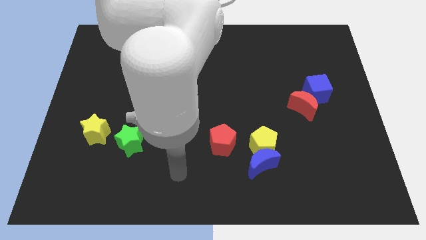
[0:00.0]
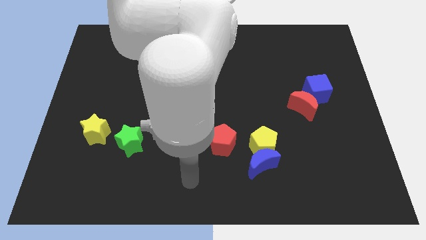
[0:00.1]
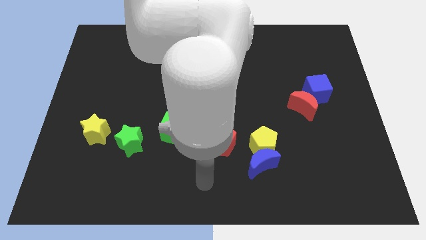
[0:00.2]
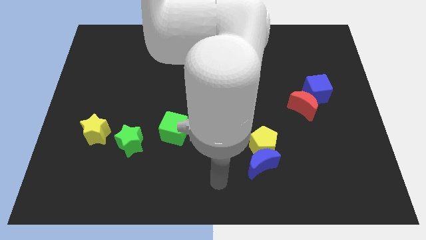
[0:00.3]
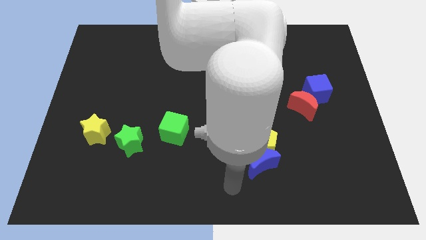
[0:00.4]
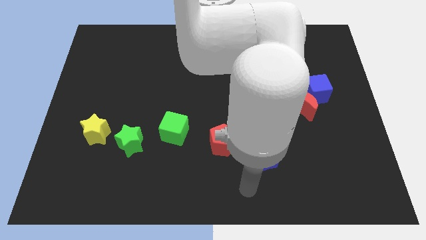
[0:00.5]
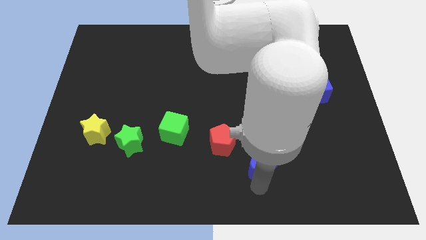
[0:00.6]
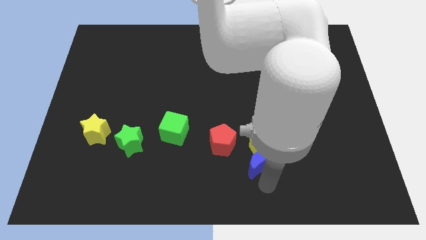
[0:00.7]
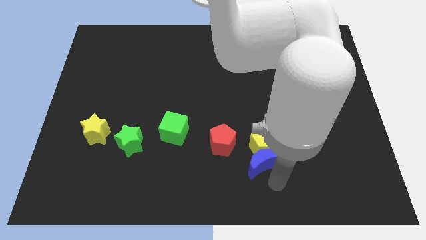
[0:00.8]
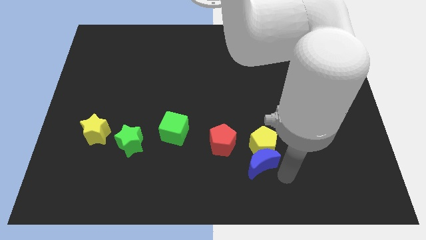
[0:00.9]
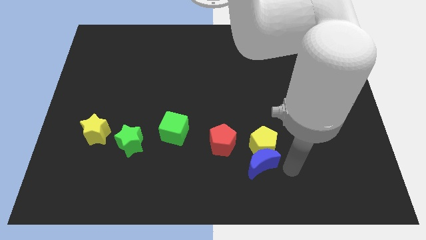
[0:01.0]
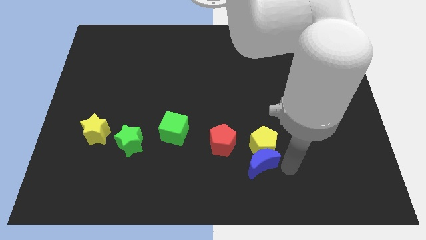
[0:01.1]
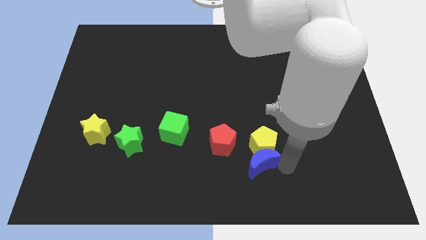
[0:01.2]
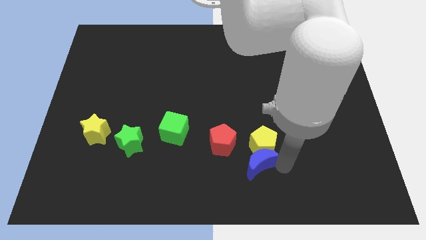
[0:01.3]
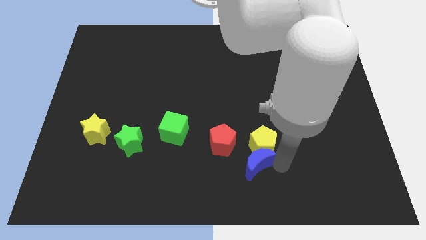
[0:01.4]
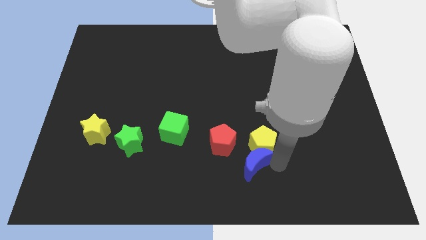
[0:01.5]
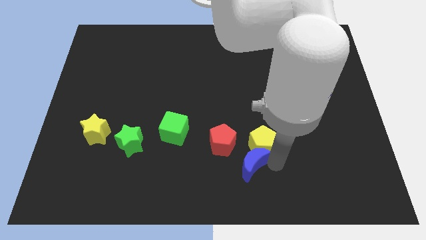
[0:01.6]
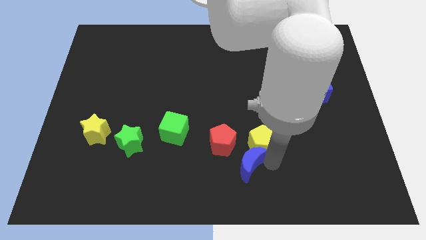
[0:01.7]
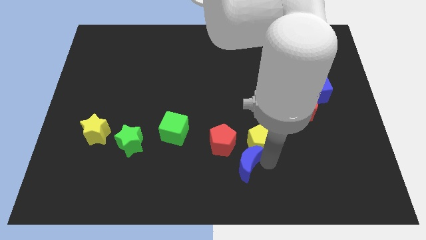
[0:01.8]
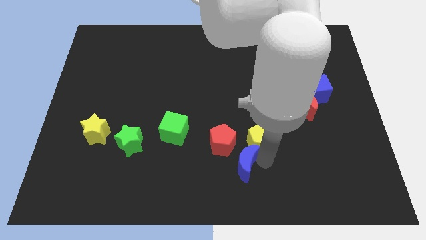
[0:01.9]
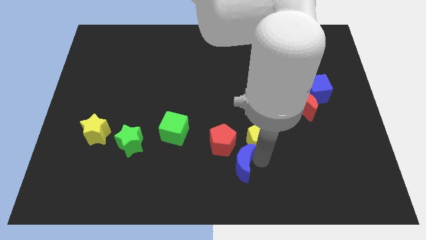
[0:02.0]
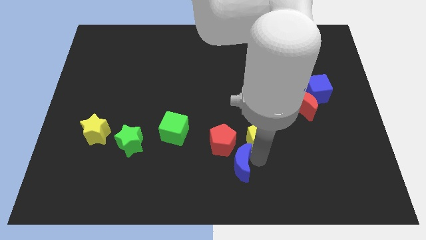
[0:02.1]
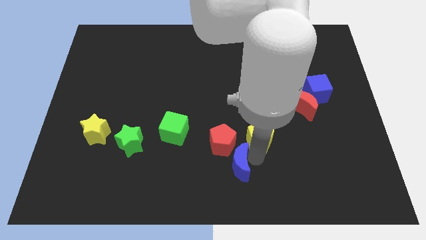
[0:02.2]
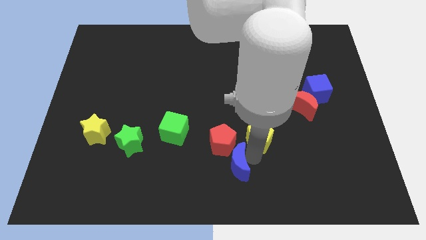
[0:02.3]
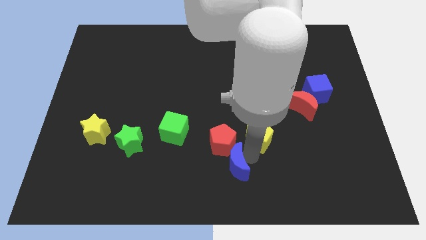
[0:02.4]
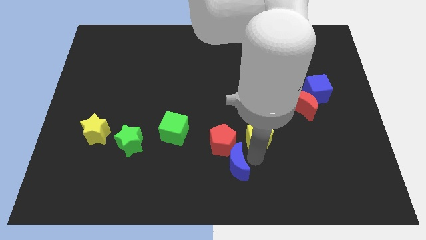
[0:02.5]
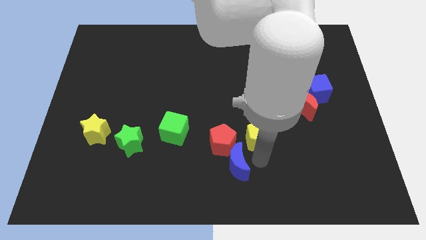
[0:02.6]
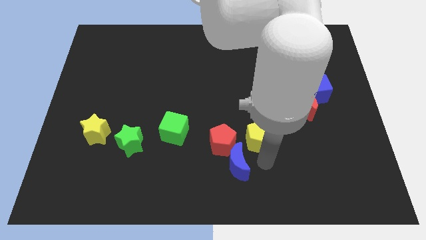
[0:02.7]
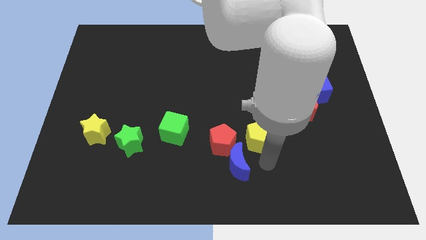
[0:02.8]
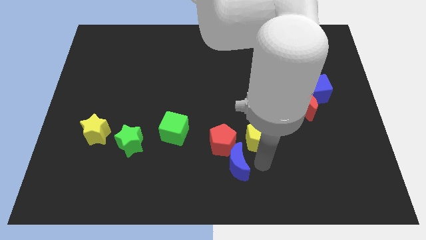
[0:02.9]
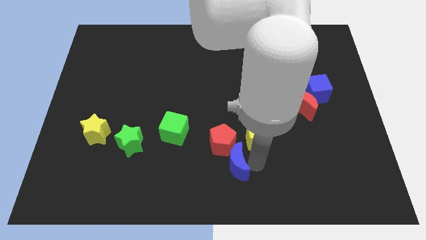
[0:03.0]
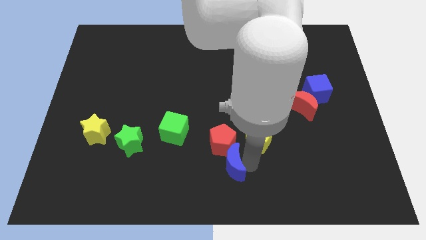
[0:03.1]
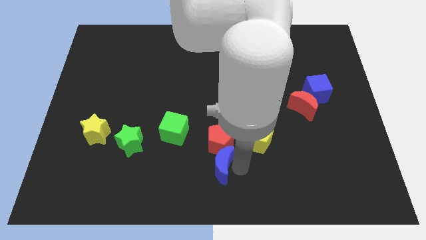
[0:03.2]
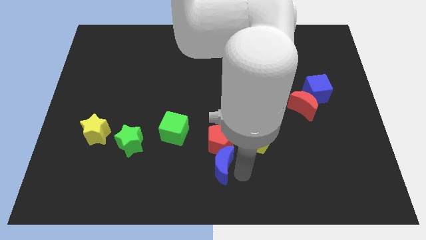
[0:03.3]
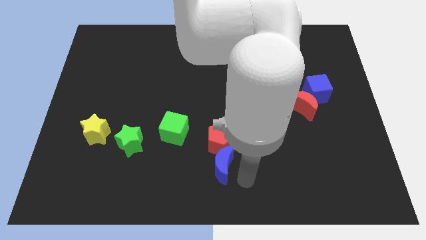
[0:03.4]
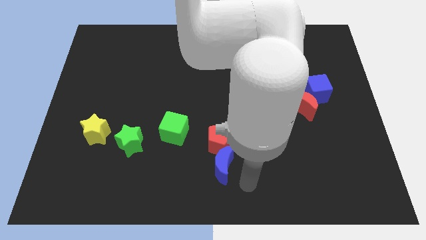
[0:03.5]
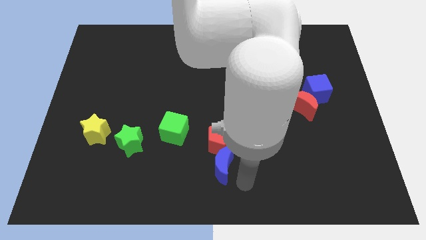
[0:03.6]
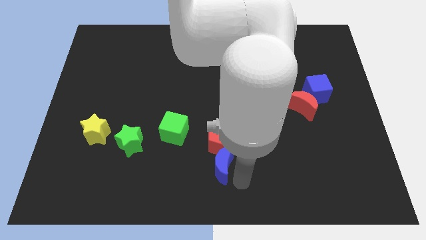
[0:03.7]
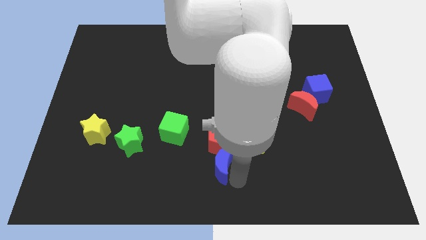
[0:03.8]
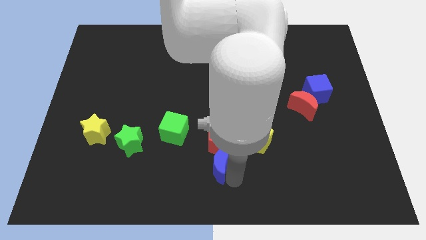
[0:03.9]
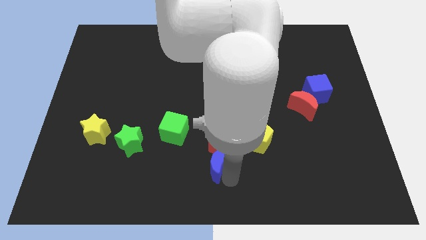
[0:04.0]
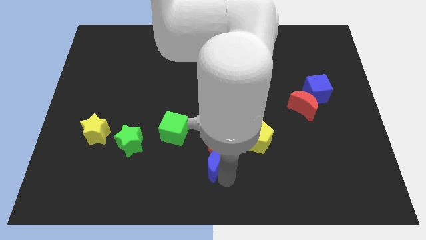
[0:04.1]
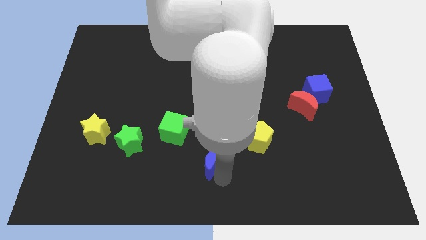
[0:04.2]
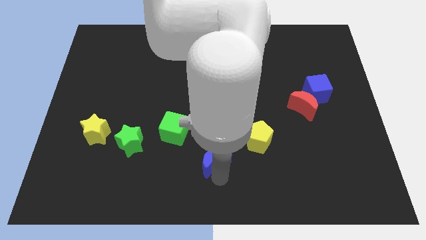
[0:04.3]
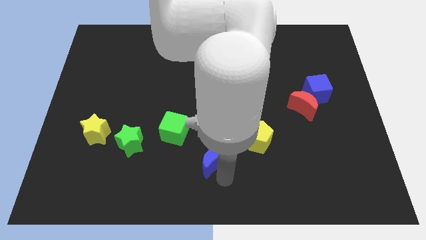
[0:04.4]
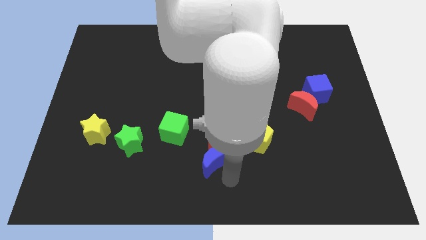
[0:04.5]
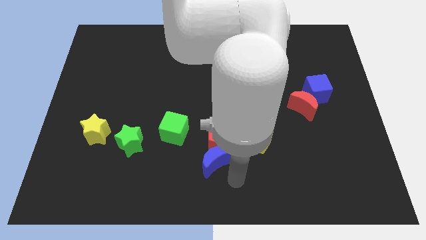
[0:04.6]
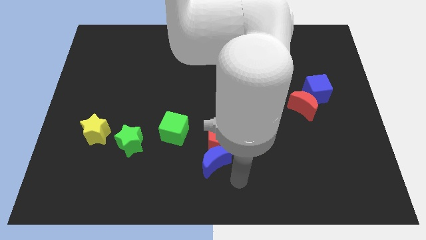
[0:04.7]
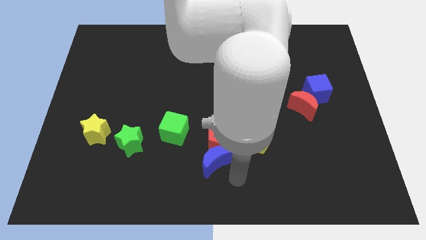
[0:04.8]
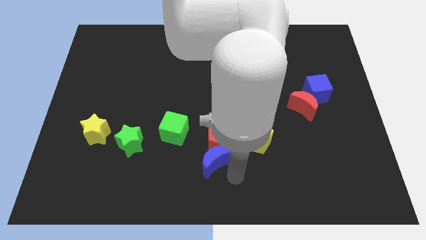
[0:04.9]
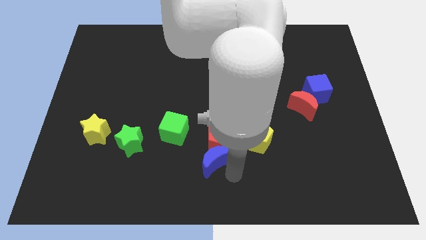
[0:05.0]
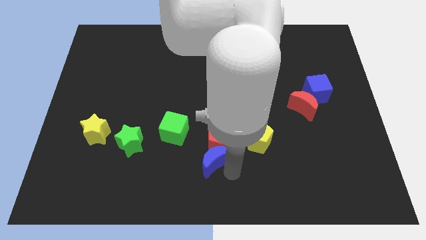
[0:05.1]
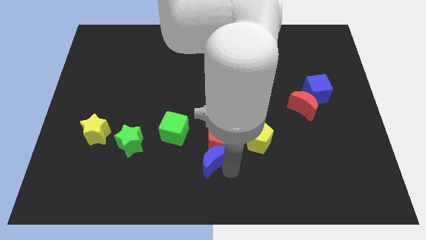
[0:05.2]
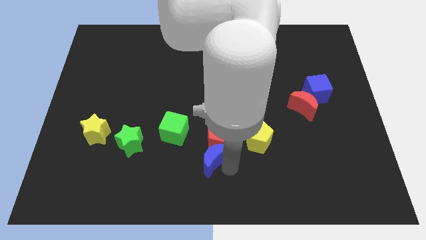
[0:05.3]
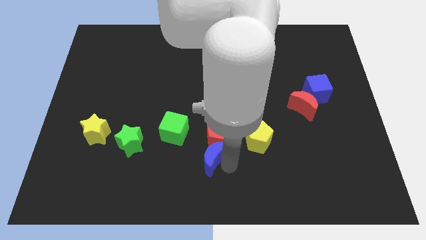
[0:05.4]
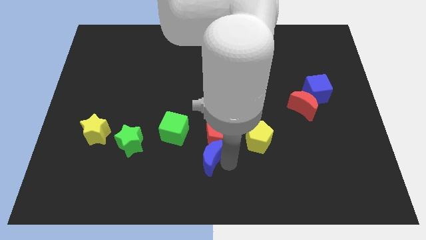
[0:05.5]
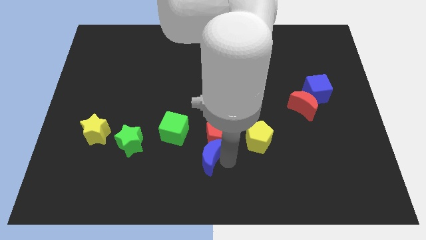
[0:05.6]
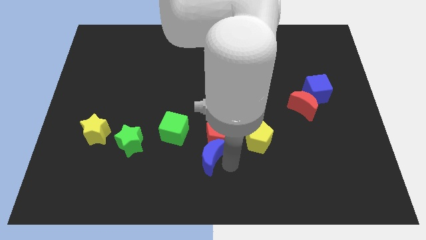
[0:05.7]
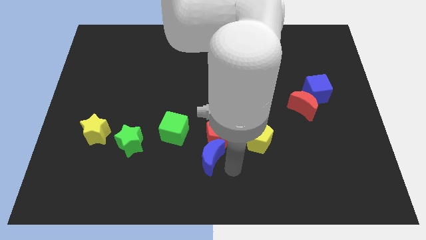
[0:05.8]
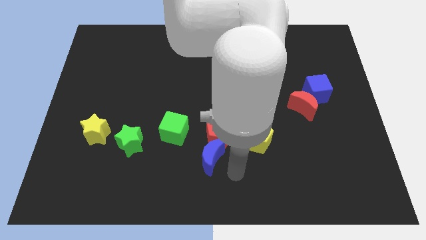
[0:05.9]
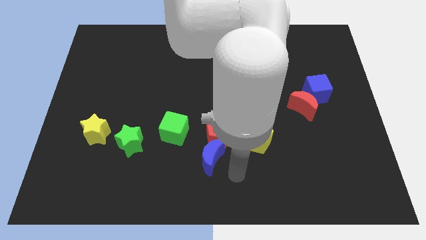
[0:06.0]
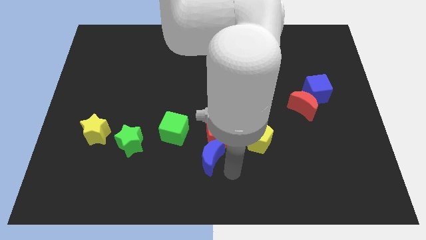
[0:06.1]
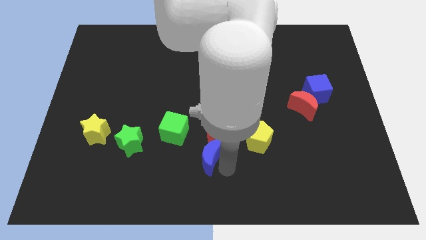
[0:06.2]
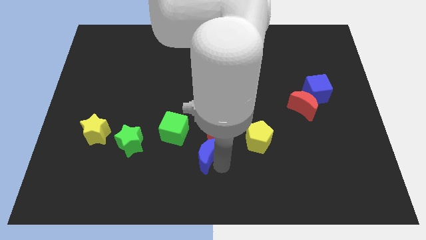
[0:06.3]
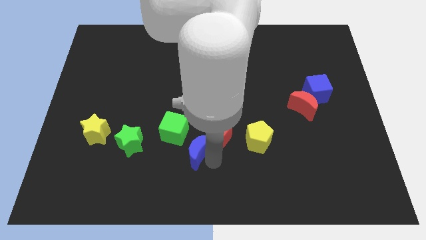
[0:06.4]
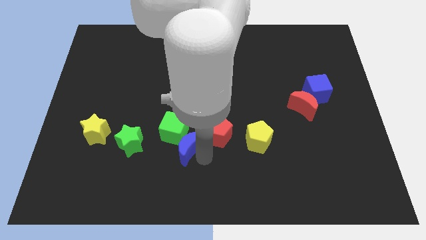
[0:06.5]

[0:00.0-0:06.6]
put the blue moon to the green cube
